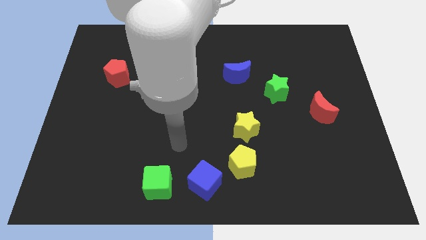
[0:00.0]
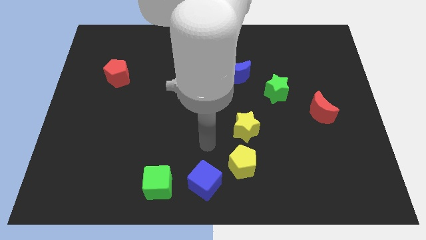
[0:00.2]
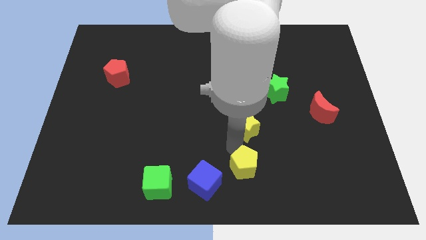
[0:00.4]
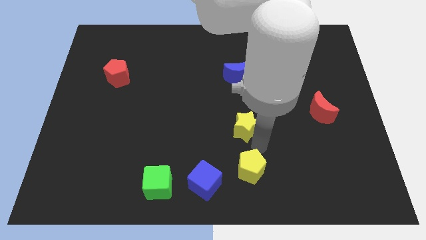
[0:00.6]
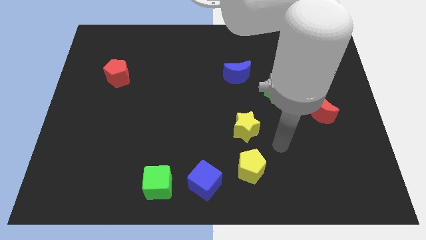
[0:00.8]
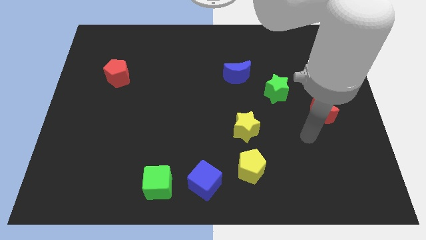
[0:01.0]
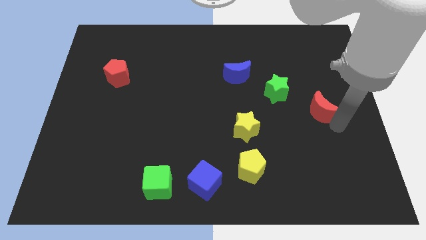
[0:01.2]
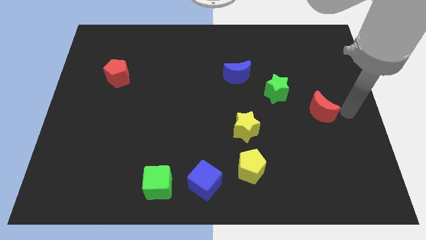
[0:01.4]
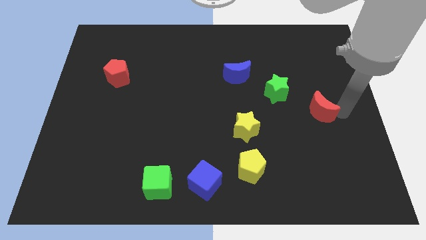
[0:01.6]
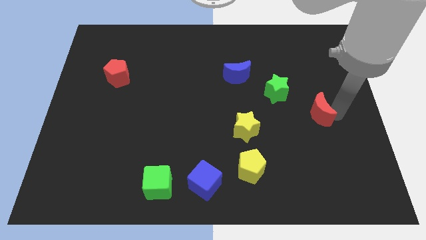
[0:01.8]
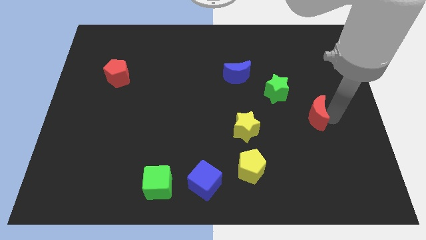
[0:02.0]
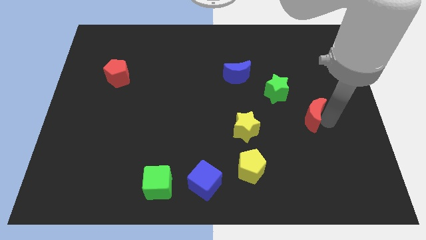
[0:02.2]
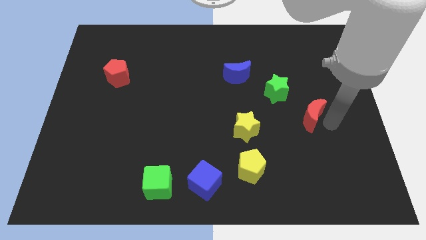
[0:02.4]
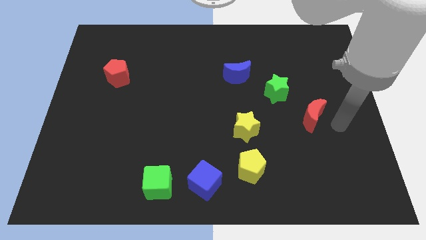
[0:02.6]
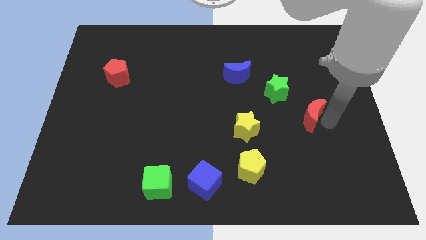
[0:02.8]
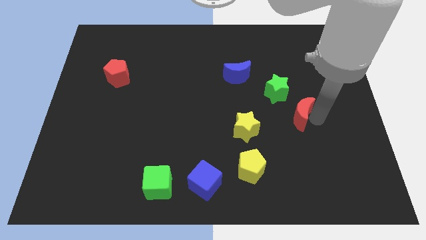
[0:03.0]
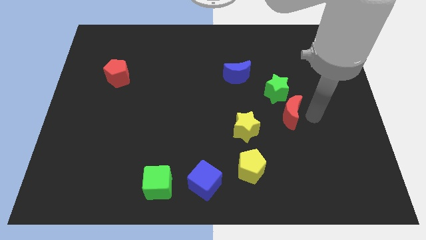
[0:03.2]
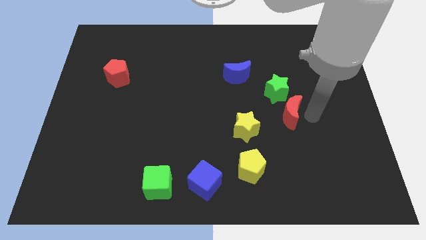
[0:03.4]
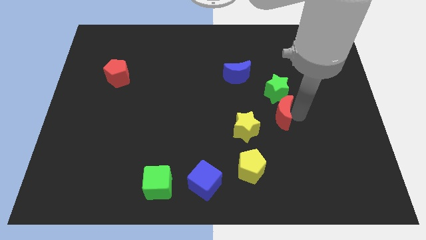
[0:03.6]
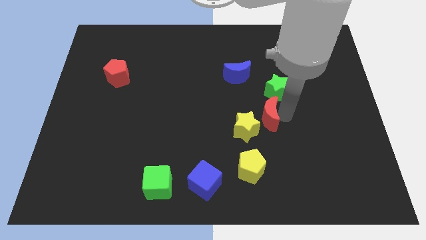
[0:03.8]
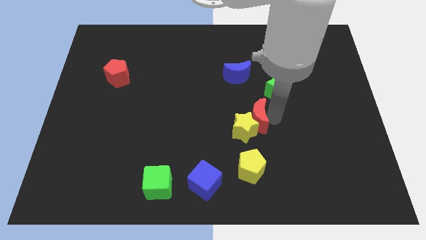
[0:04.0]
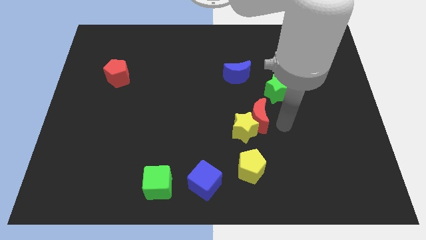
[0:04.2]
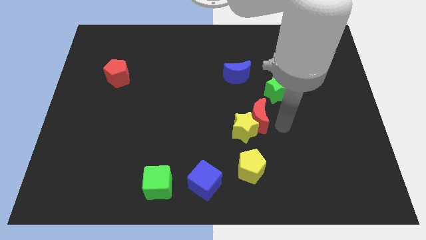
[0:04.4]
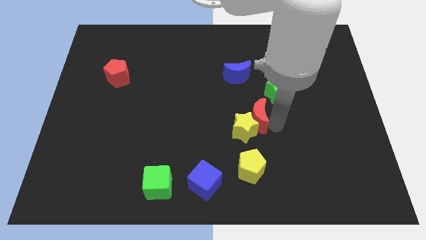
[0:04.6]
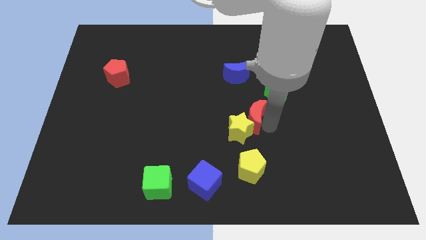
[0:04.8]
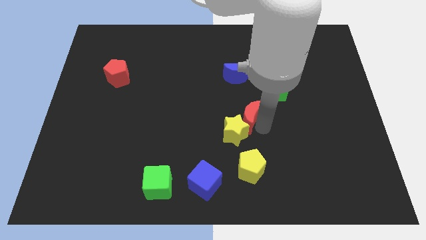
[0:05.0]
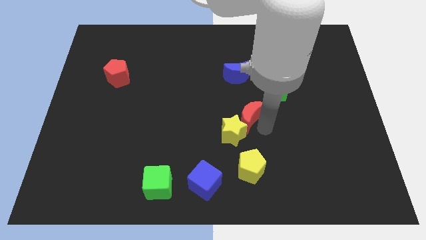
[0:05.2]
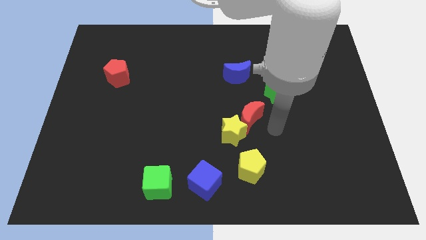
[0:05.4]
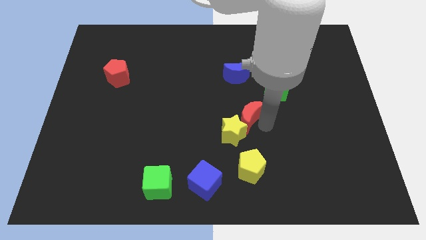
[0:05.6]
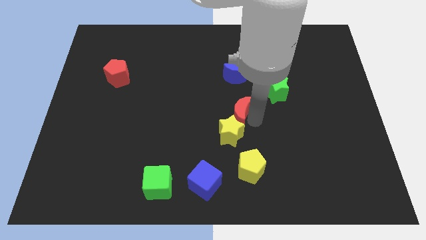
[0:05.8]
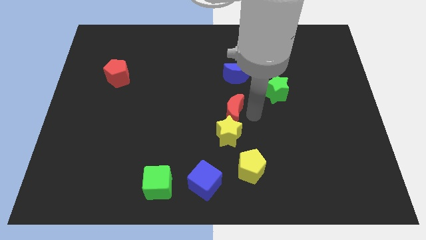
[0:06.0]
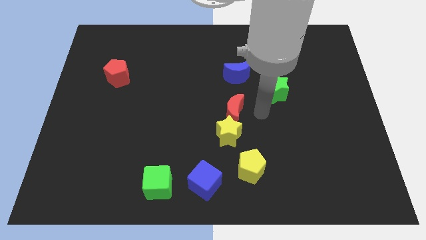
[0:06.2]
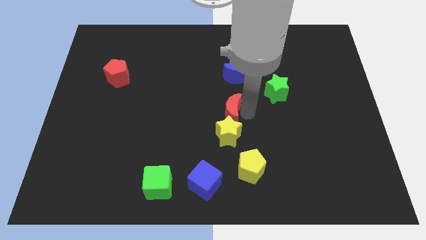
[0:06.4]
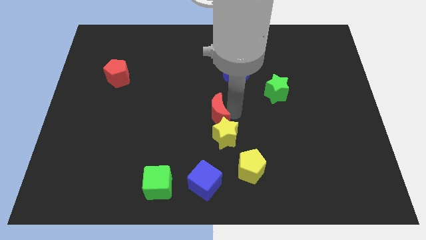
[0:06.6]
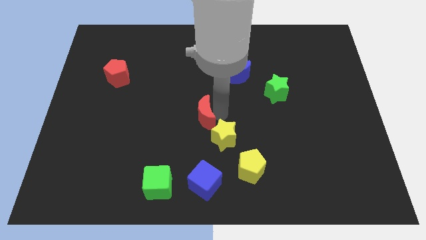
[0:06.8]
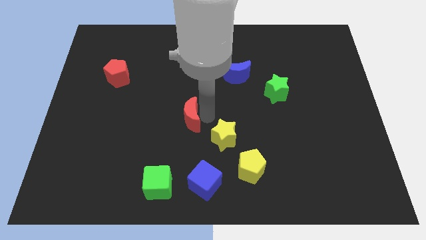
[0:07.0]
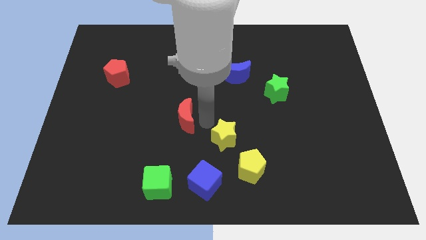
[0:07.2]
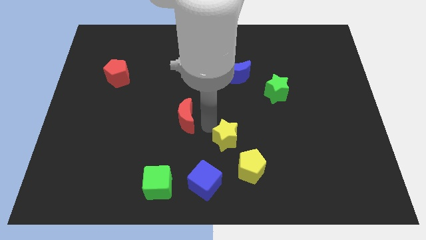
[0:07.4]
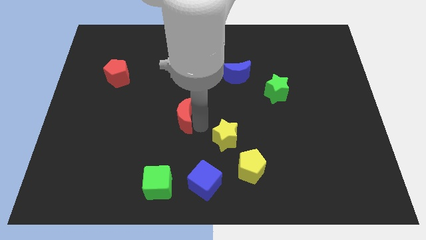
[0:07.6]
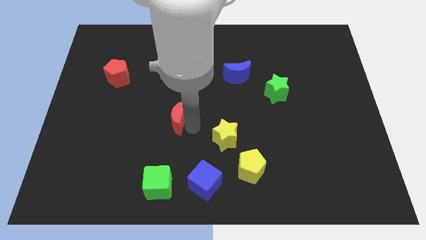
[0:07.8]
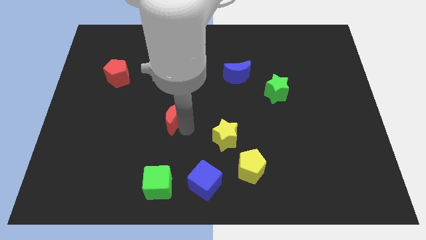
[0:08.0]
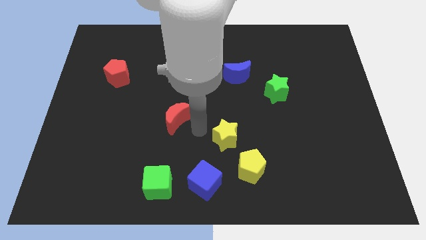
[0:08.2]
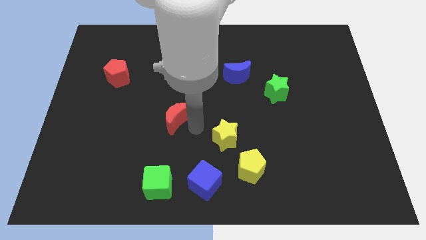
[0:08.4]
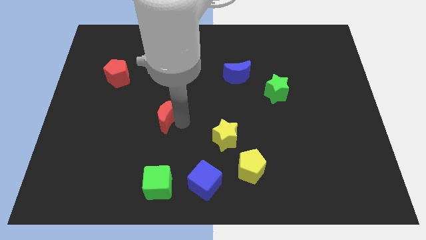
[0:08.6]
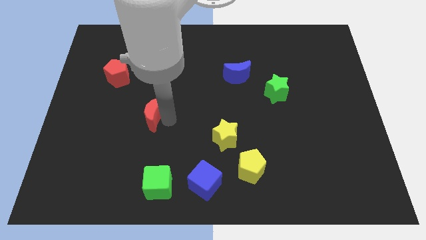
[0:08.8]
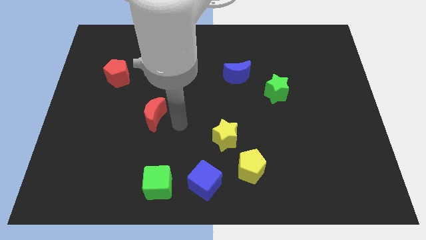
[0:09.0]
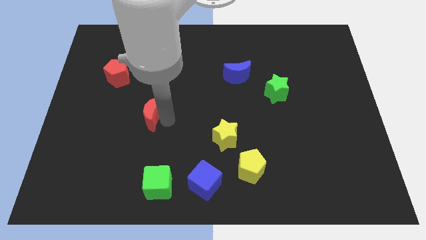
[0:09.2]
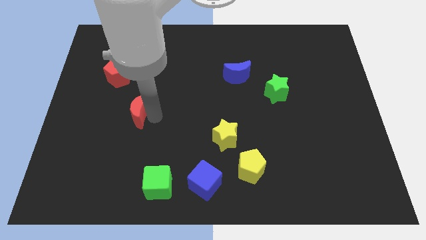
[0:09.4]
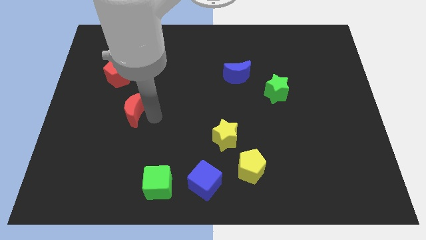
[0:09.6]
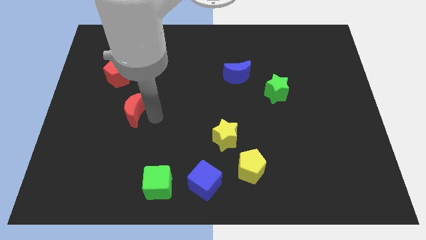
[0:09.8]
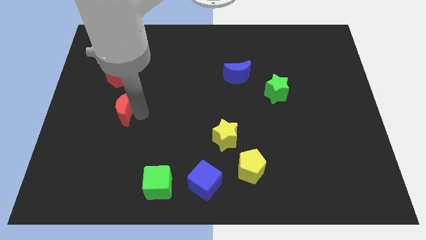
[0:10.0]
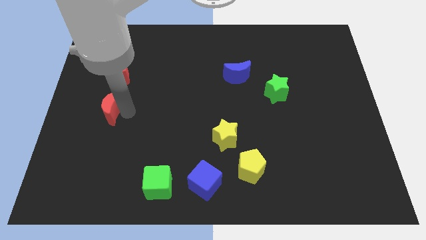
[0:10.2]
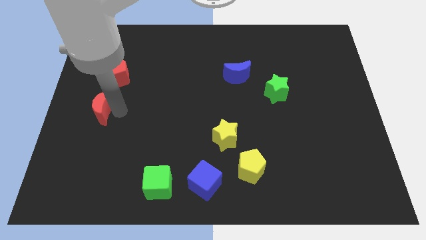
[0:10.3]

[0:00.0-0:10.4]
put the red moon to the left side

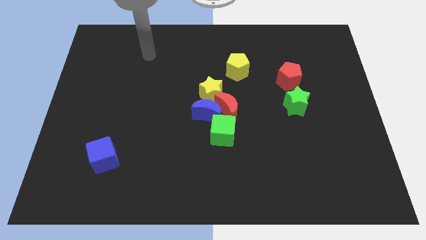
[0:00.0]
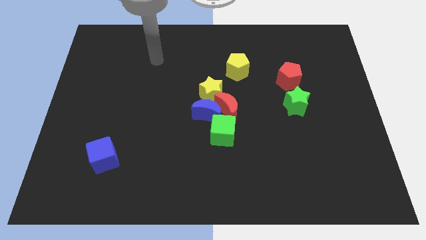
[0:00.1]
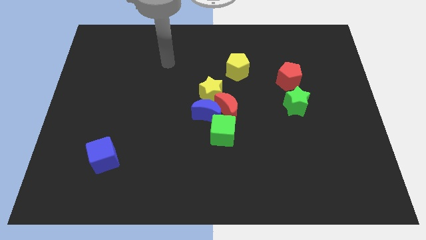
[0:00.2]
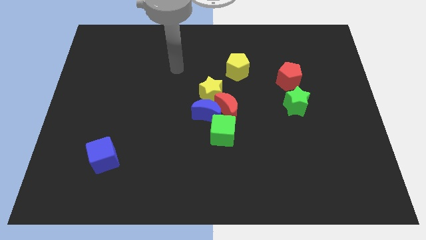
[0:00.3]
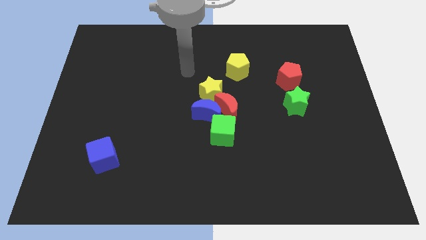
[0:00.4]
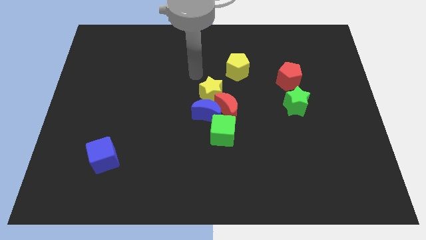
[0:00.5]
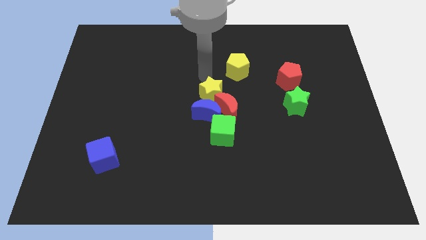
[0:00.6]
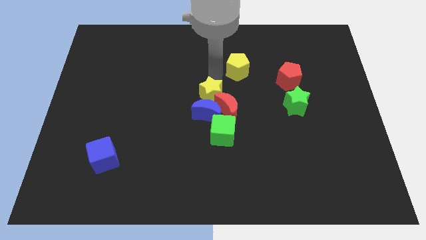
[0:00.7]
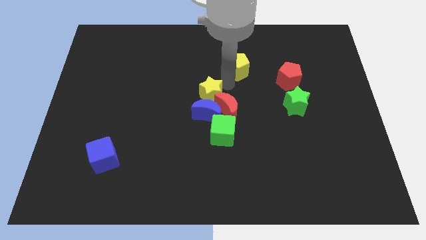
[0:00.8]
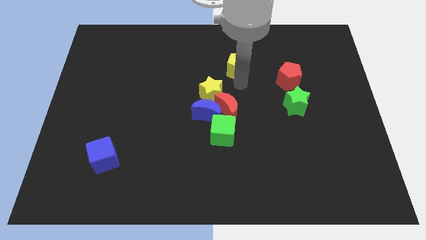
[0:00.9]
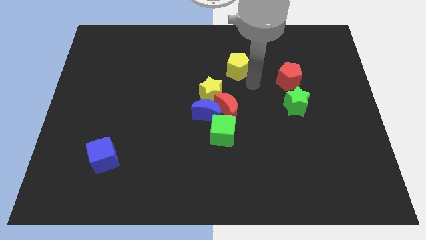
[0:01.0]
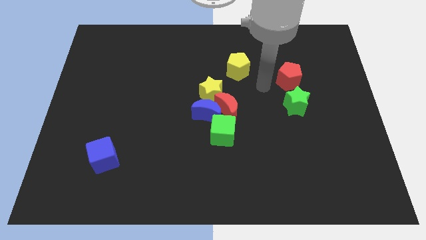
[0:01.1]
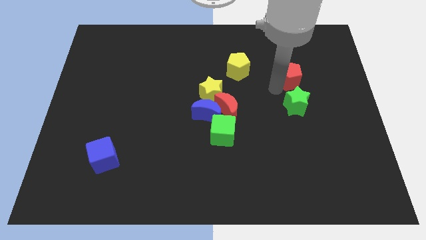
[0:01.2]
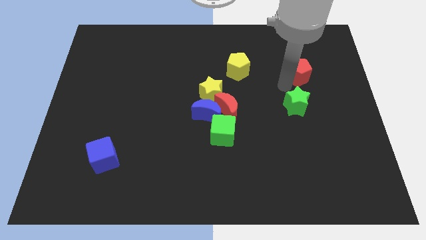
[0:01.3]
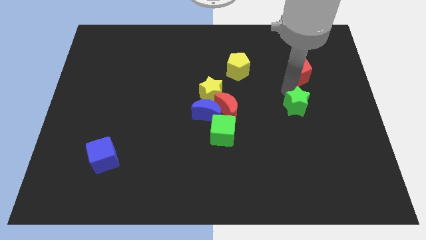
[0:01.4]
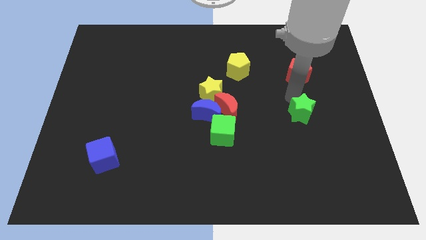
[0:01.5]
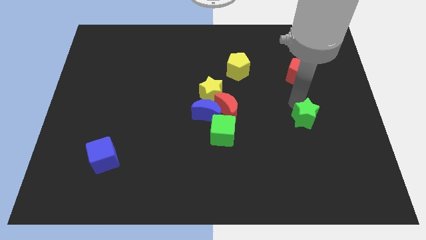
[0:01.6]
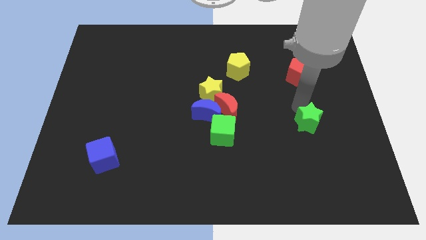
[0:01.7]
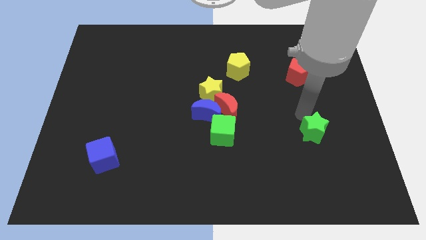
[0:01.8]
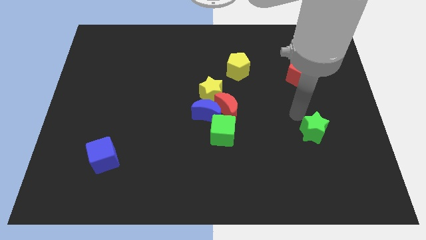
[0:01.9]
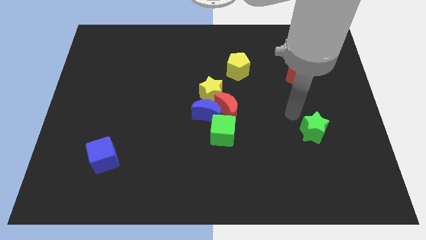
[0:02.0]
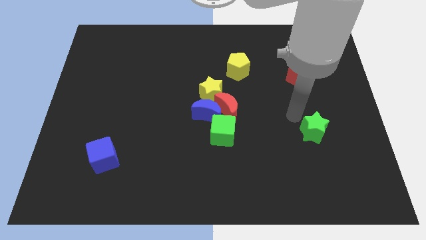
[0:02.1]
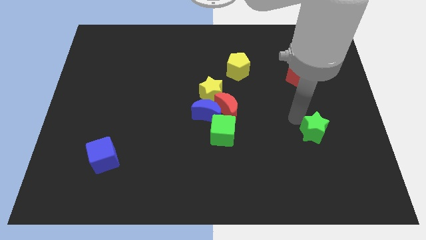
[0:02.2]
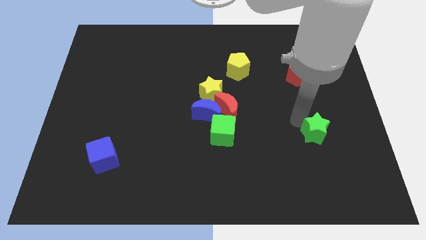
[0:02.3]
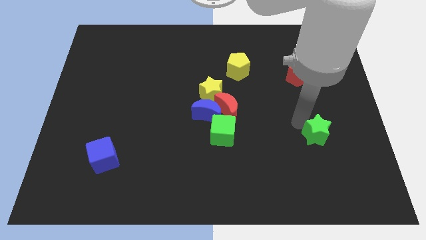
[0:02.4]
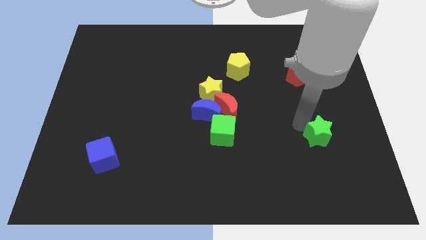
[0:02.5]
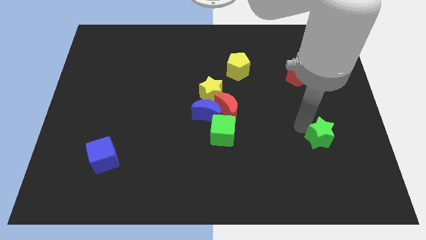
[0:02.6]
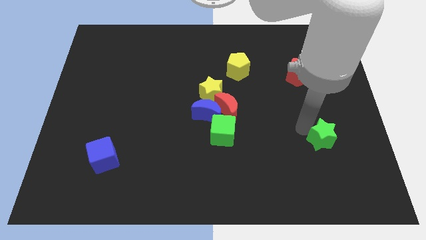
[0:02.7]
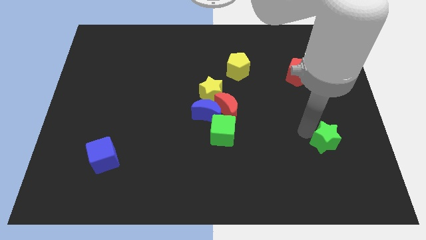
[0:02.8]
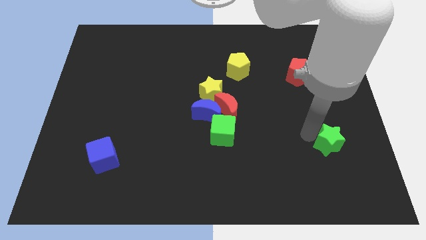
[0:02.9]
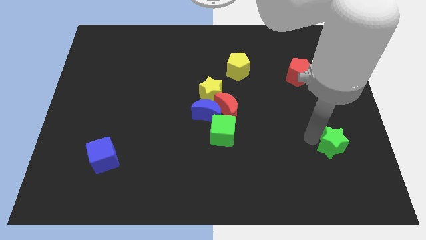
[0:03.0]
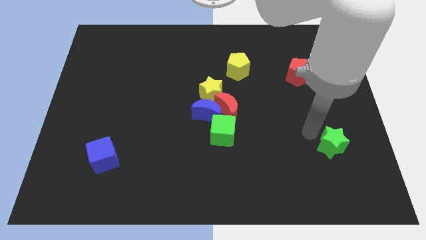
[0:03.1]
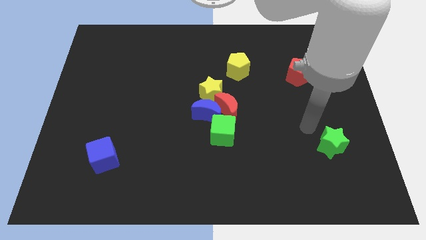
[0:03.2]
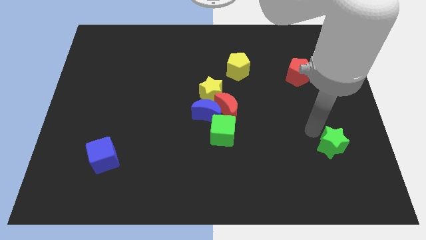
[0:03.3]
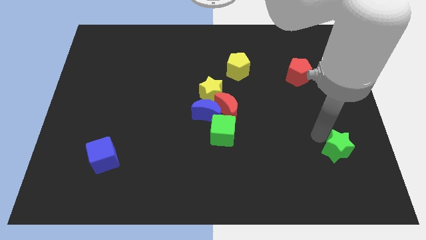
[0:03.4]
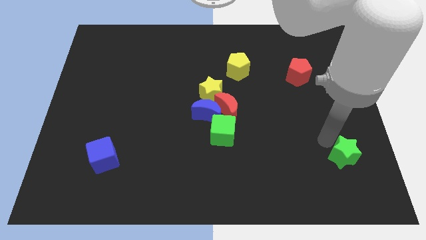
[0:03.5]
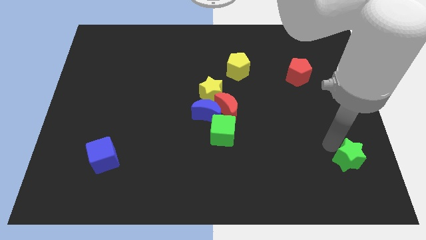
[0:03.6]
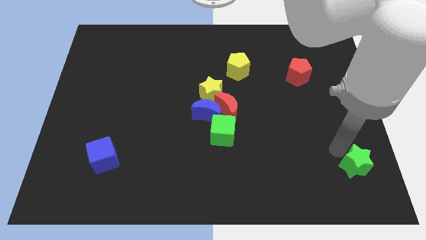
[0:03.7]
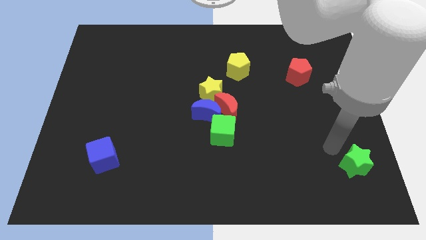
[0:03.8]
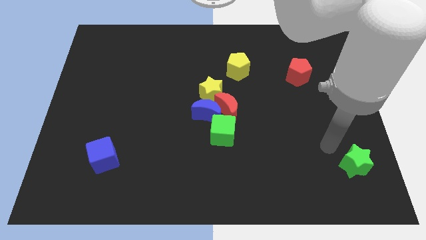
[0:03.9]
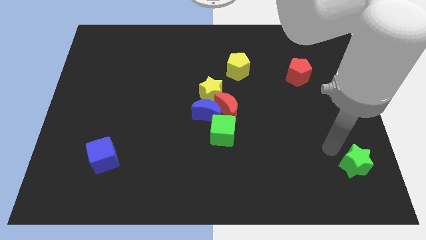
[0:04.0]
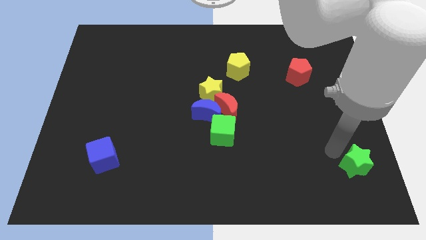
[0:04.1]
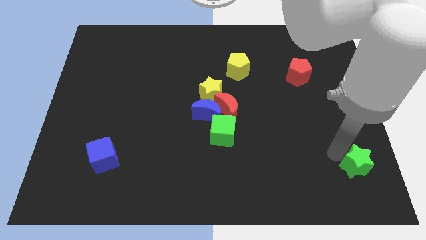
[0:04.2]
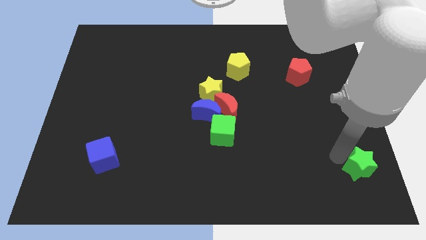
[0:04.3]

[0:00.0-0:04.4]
push the green star to the bottom right of the board
